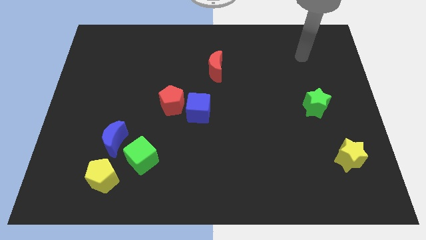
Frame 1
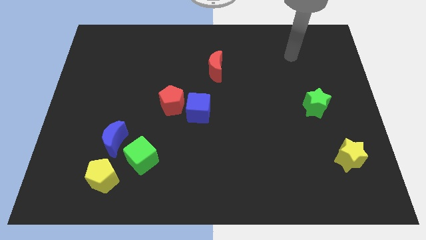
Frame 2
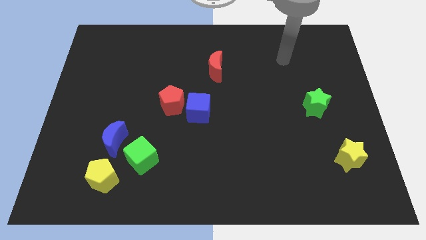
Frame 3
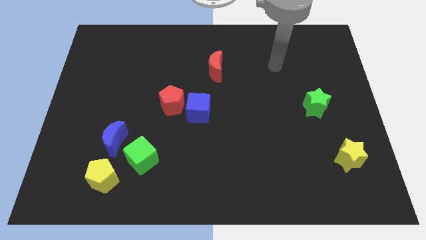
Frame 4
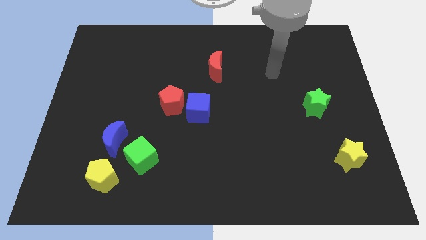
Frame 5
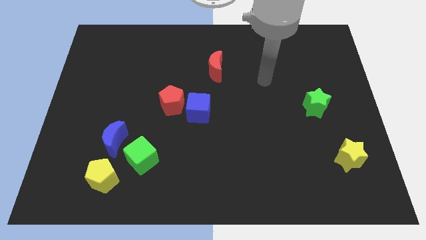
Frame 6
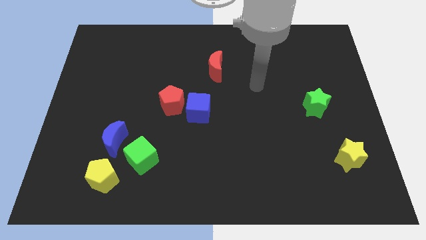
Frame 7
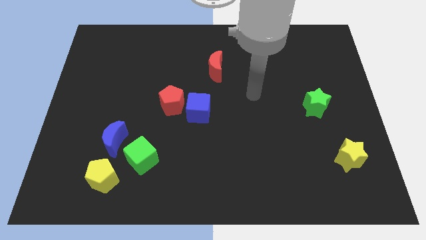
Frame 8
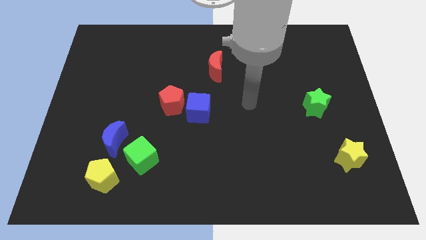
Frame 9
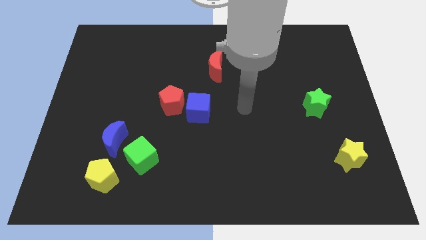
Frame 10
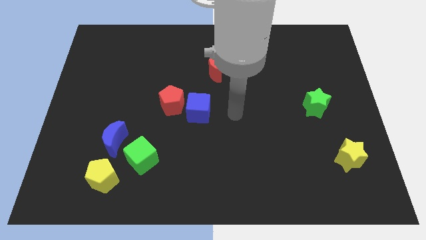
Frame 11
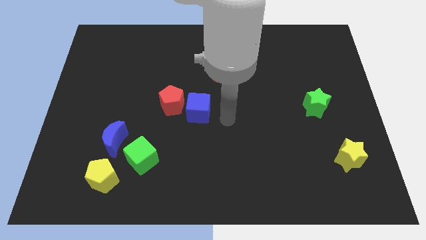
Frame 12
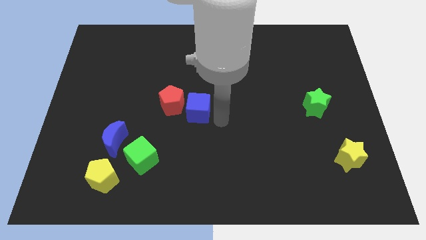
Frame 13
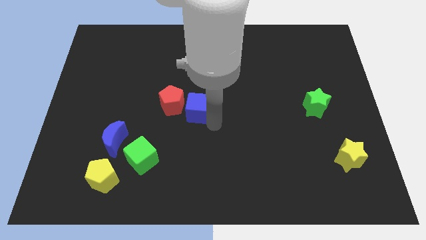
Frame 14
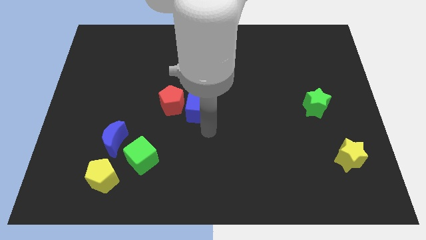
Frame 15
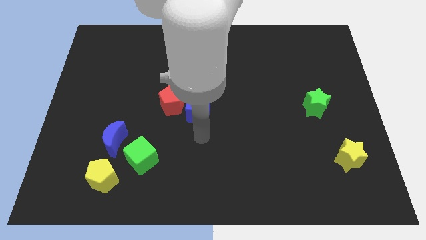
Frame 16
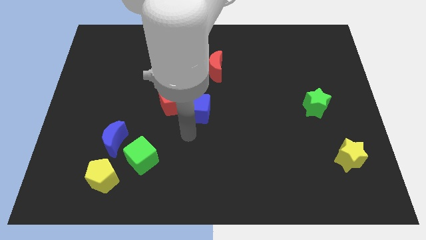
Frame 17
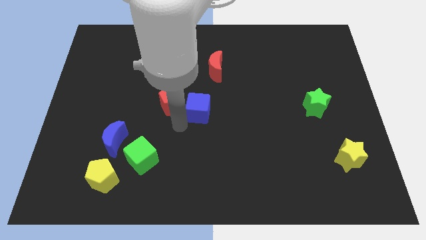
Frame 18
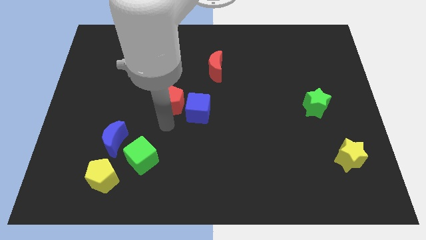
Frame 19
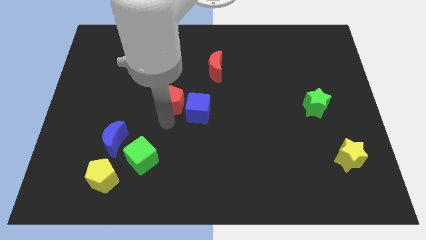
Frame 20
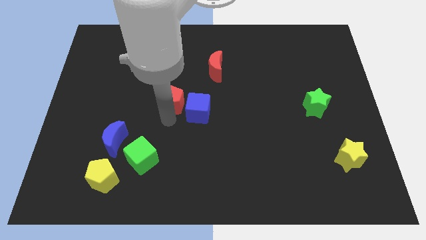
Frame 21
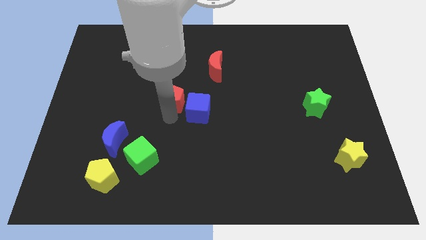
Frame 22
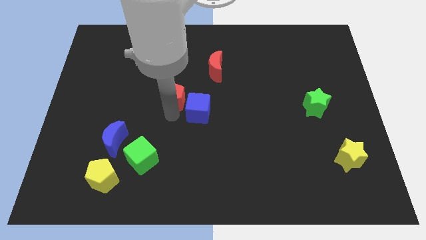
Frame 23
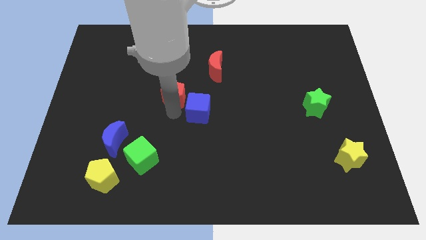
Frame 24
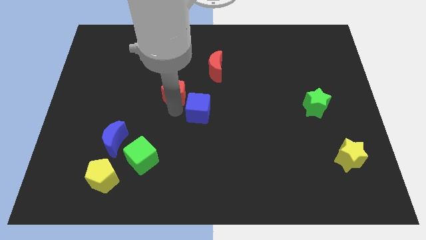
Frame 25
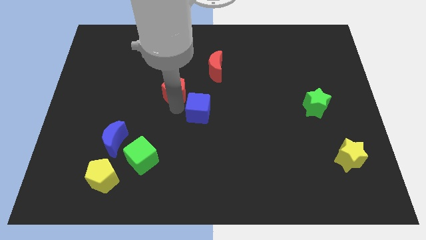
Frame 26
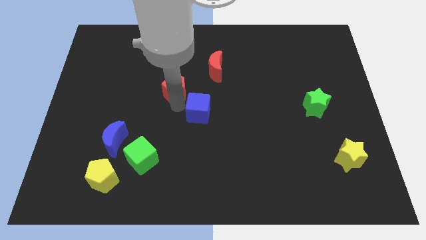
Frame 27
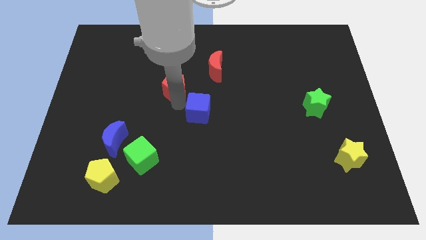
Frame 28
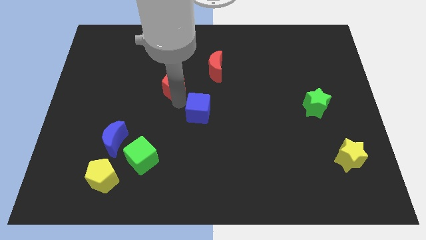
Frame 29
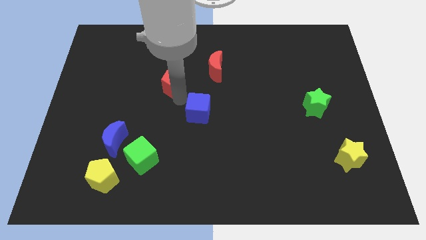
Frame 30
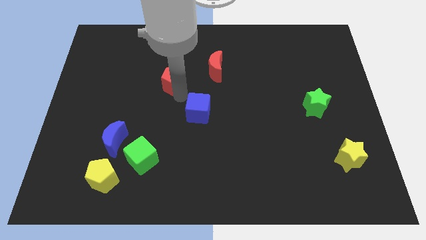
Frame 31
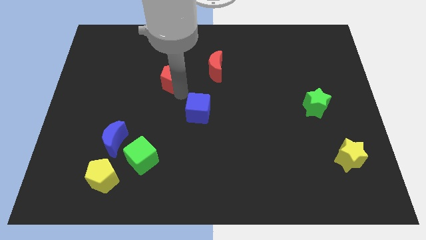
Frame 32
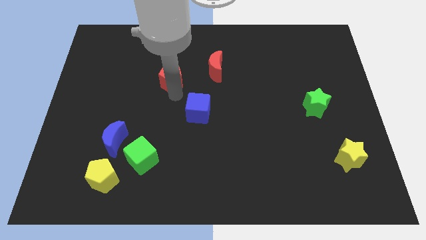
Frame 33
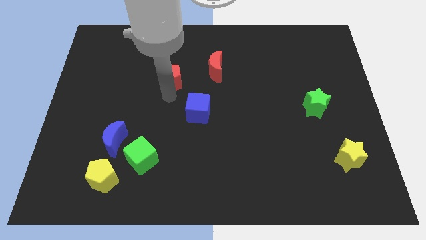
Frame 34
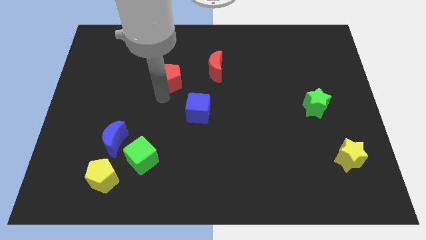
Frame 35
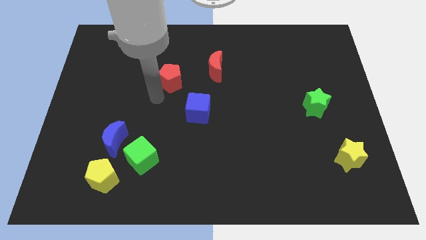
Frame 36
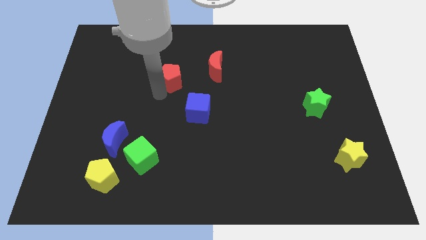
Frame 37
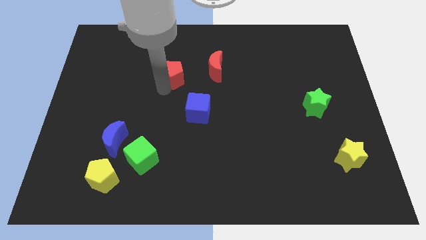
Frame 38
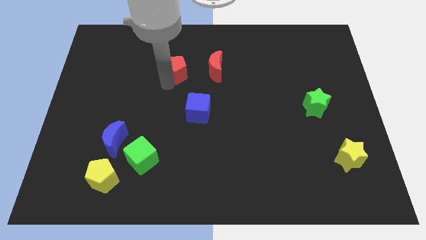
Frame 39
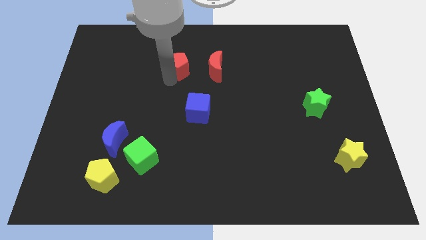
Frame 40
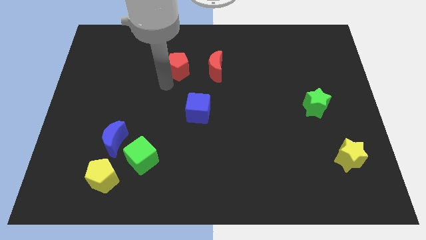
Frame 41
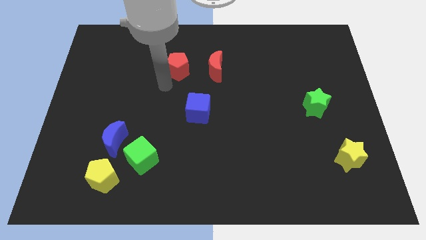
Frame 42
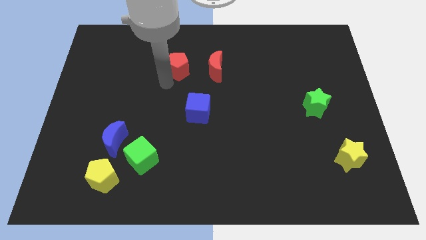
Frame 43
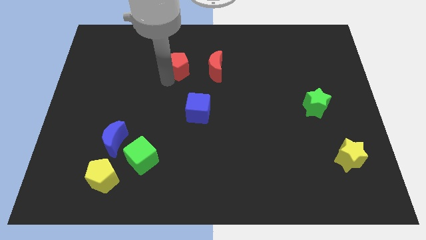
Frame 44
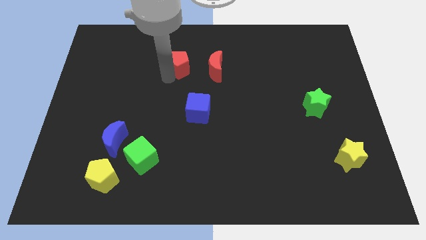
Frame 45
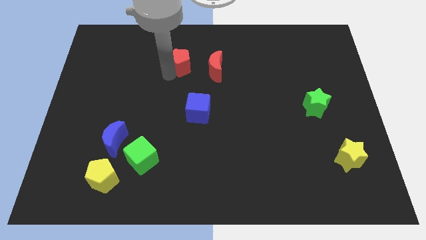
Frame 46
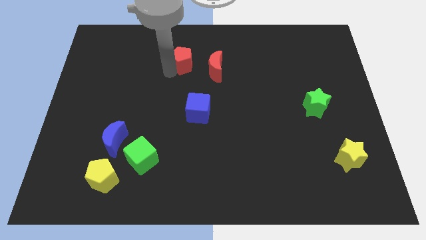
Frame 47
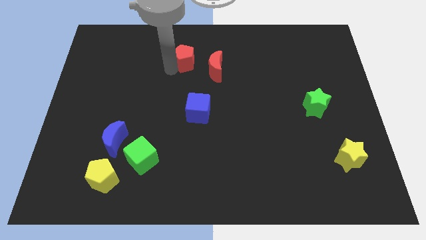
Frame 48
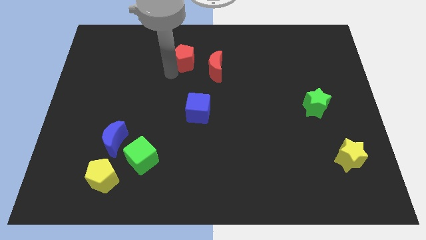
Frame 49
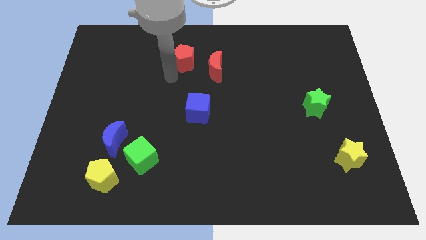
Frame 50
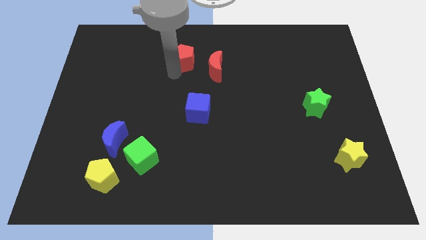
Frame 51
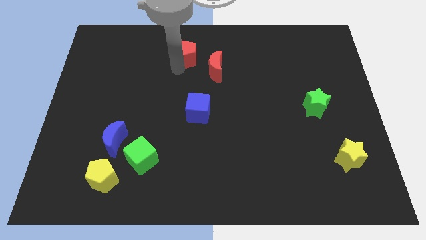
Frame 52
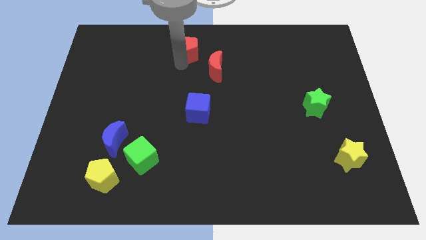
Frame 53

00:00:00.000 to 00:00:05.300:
put the red pentagon to the towards your base

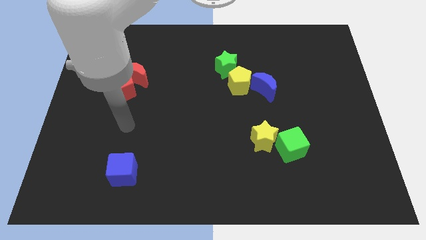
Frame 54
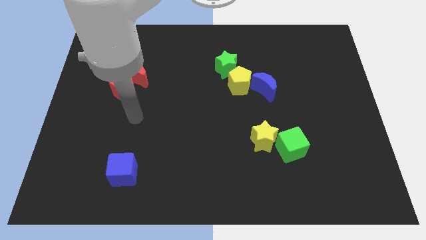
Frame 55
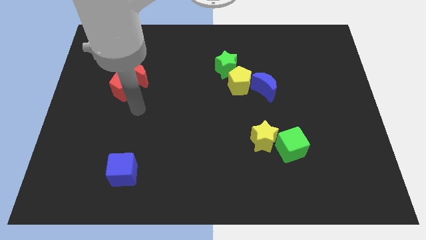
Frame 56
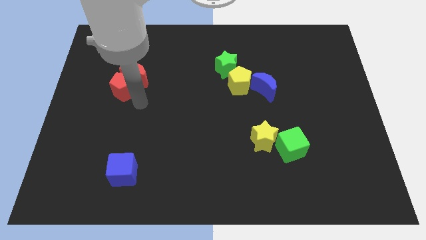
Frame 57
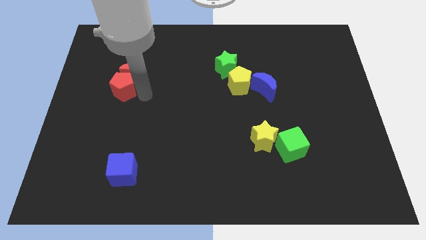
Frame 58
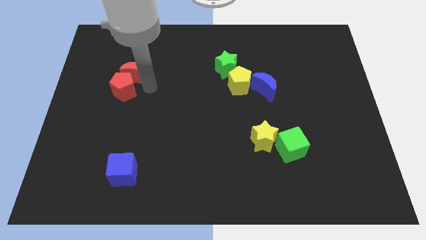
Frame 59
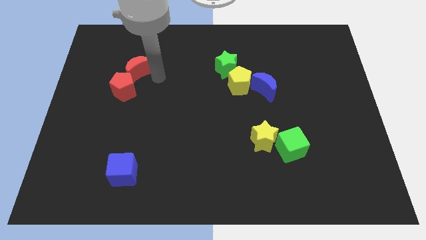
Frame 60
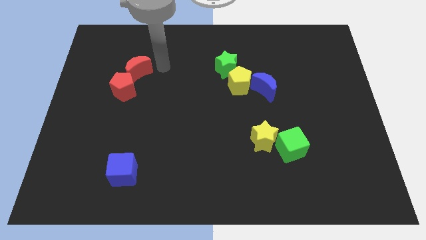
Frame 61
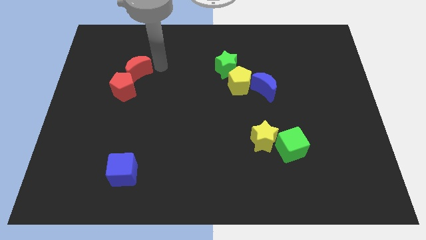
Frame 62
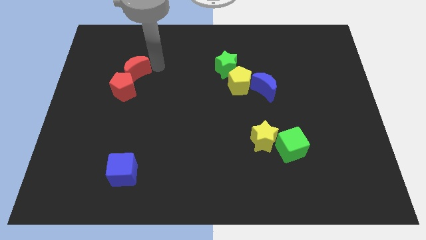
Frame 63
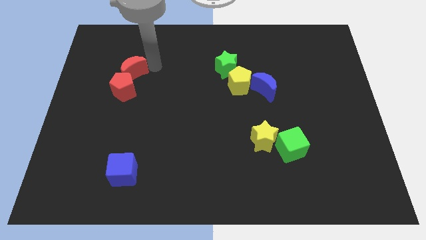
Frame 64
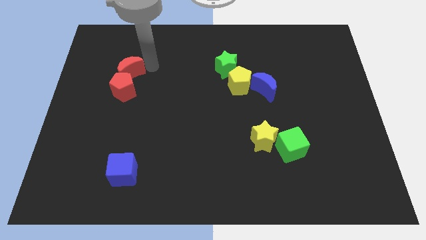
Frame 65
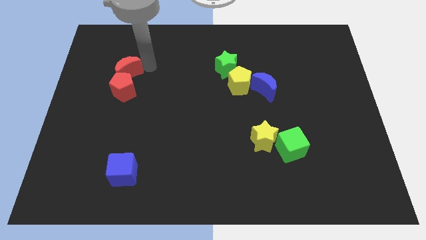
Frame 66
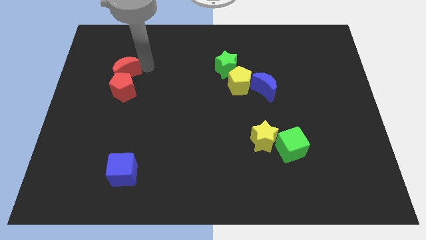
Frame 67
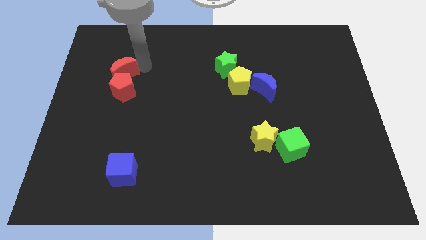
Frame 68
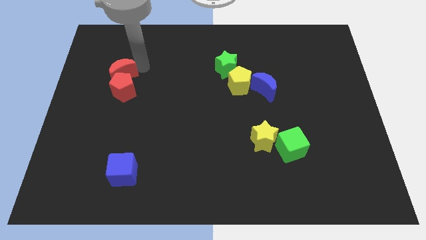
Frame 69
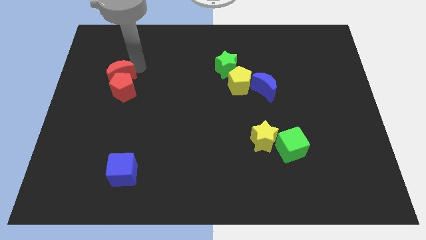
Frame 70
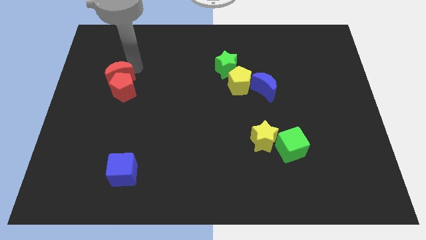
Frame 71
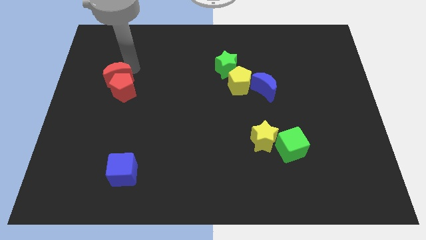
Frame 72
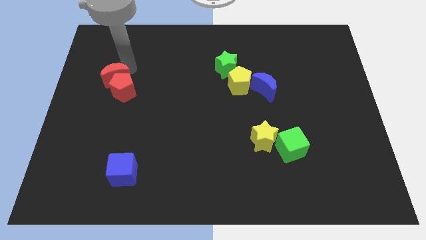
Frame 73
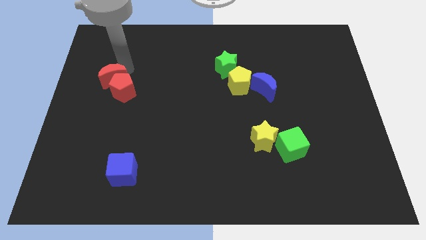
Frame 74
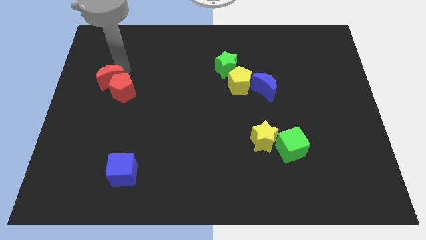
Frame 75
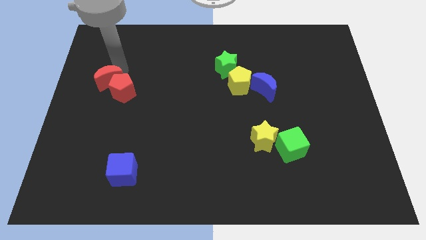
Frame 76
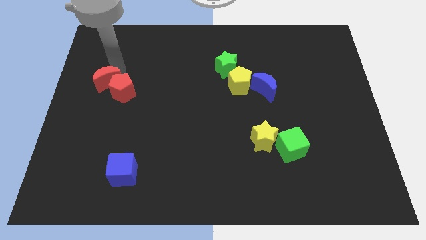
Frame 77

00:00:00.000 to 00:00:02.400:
push the red moon to the left side of the board
